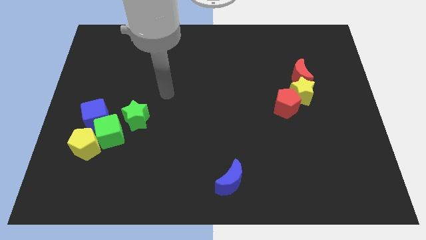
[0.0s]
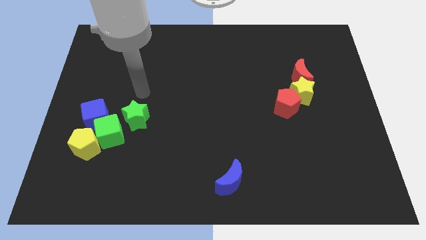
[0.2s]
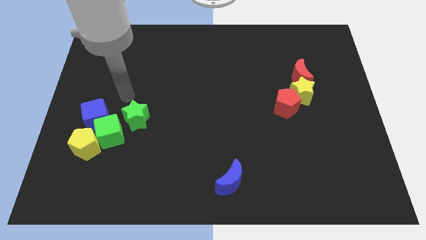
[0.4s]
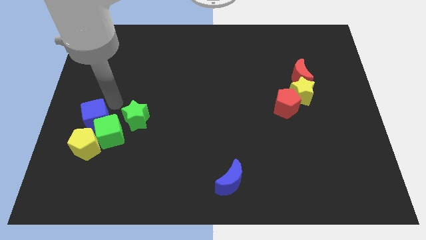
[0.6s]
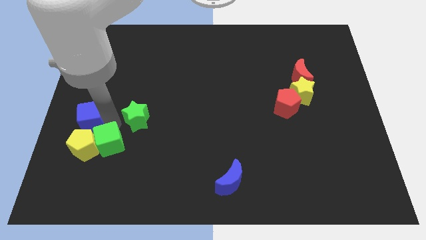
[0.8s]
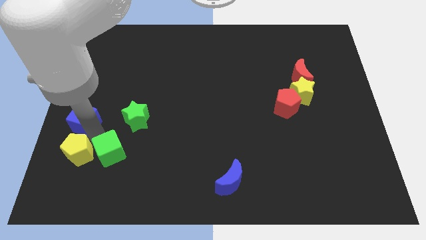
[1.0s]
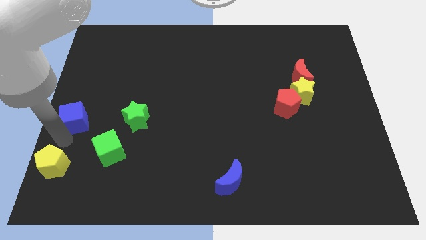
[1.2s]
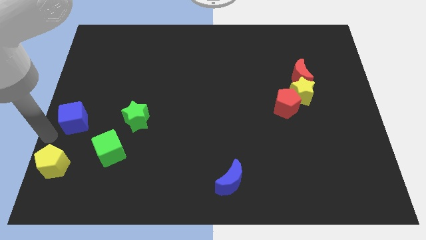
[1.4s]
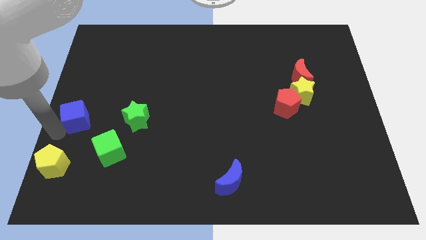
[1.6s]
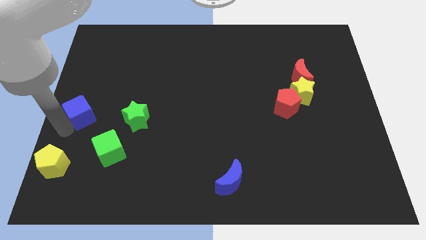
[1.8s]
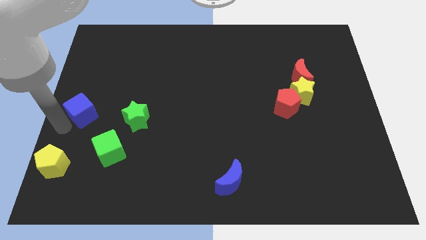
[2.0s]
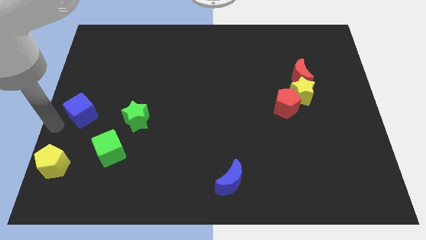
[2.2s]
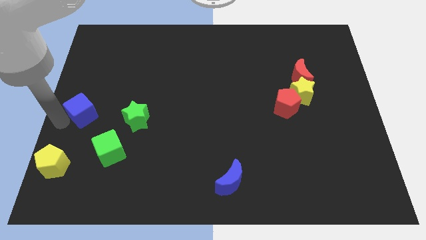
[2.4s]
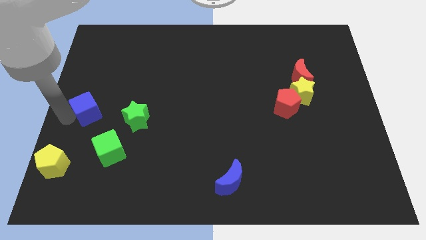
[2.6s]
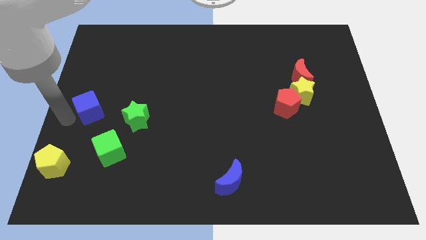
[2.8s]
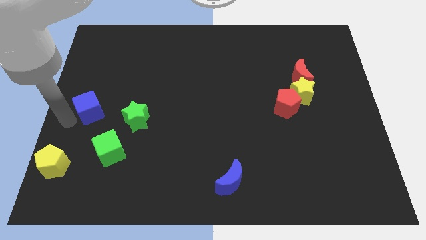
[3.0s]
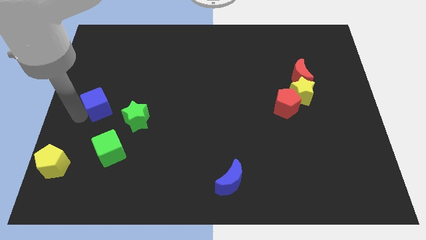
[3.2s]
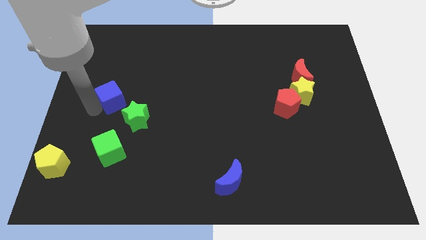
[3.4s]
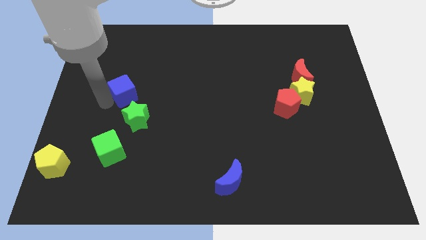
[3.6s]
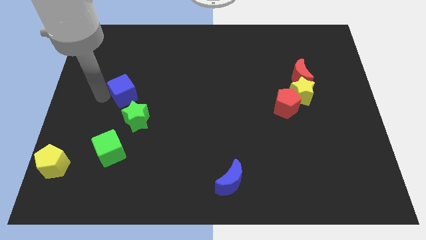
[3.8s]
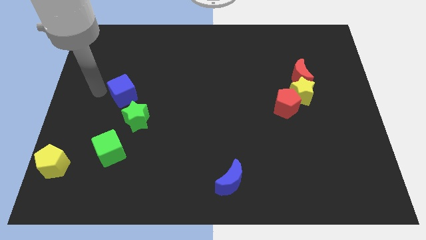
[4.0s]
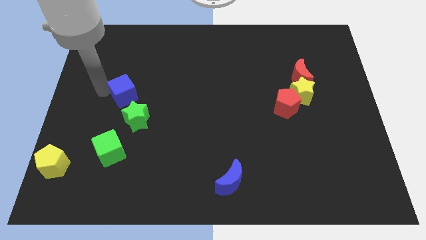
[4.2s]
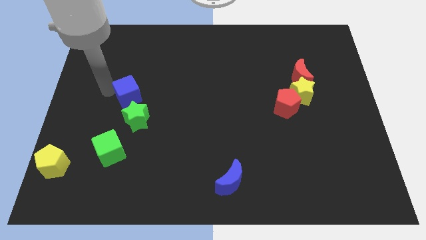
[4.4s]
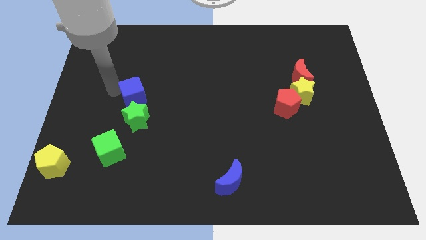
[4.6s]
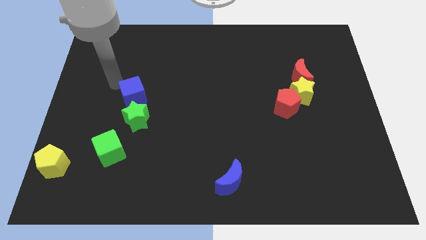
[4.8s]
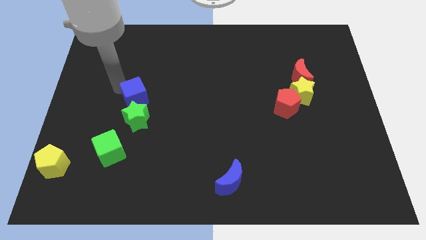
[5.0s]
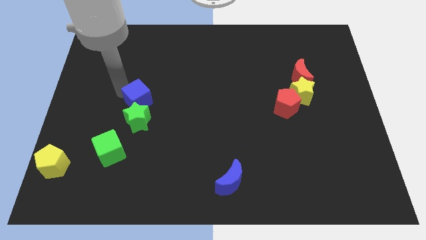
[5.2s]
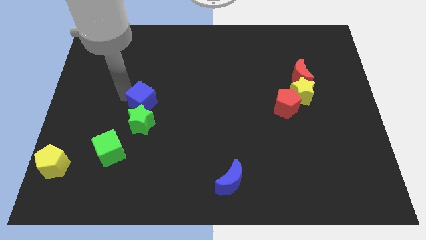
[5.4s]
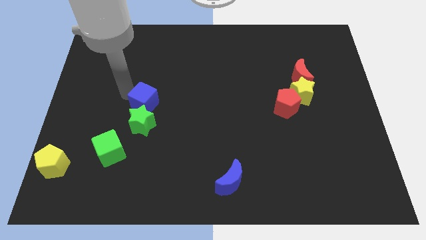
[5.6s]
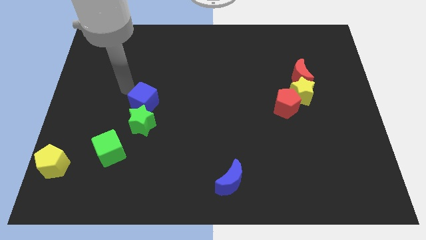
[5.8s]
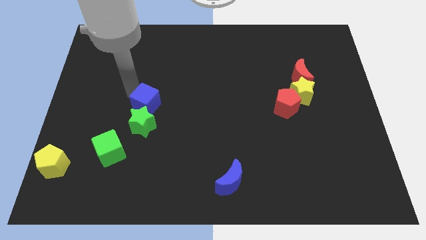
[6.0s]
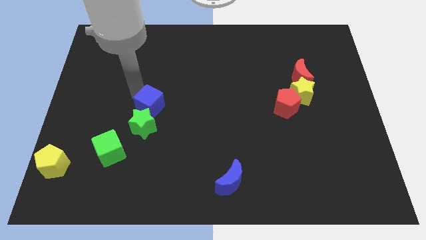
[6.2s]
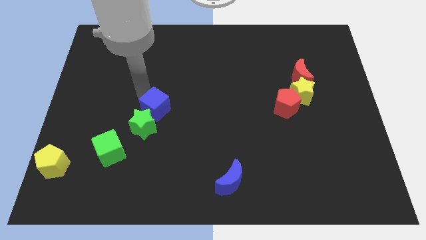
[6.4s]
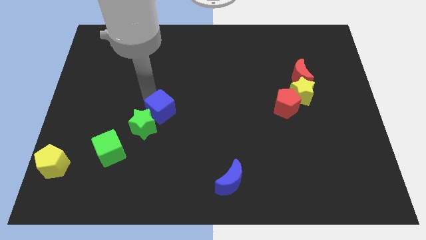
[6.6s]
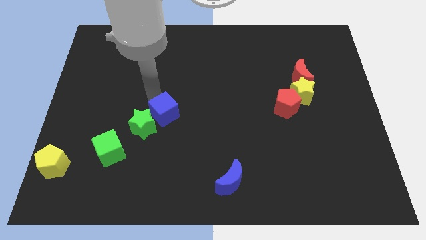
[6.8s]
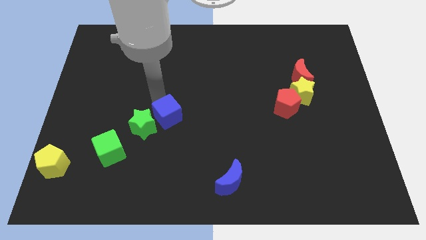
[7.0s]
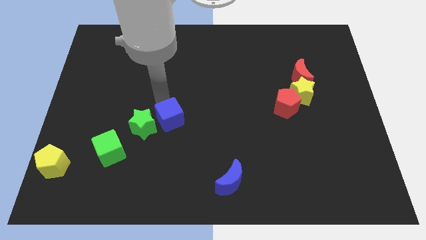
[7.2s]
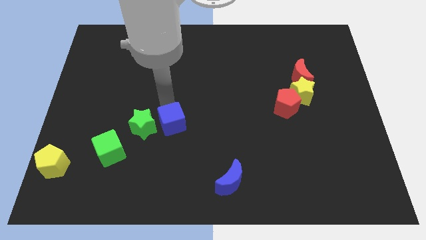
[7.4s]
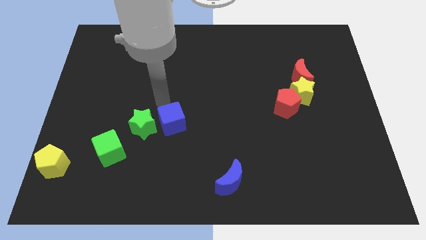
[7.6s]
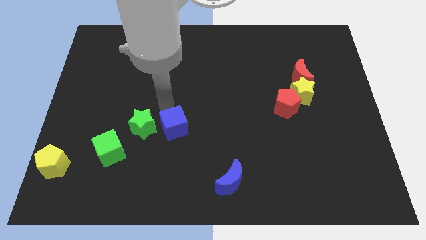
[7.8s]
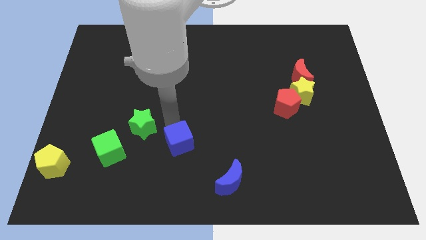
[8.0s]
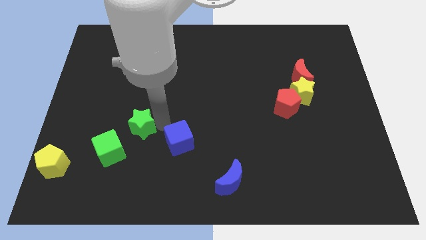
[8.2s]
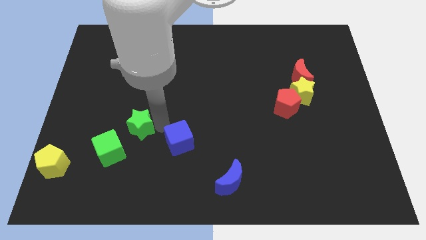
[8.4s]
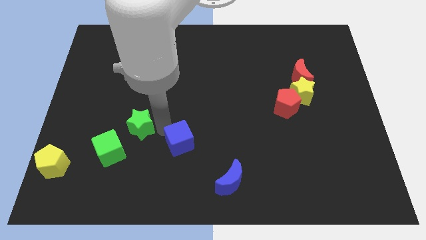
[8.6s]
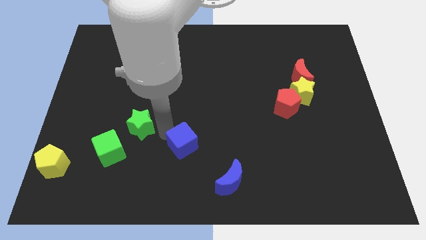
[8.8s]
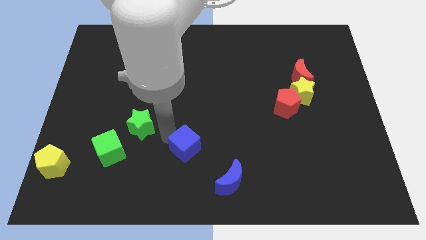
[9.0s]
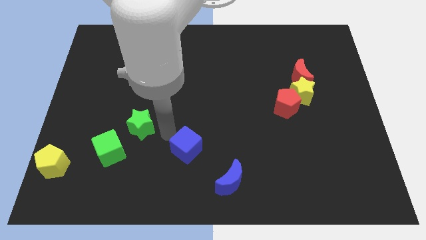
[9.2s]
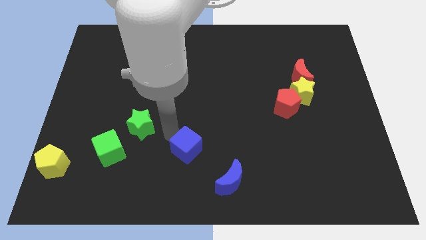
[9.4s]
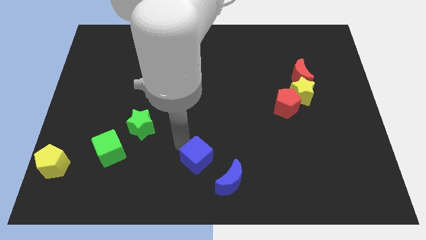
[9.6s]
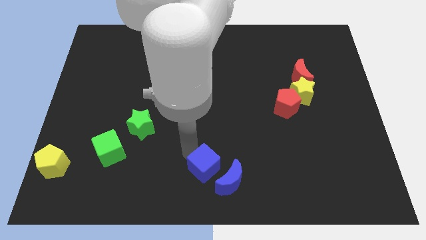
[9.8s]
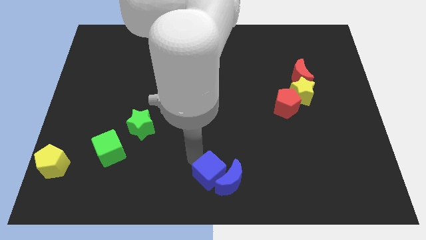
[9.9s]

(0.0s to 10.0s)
push the blue cube to the blue moon

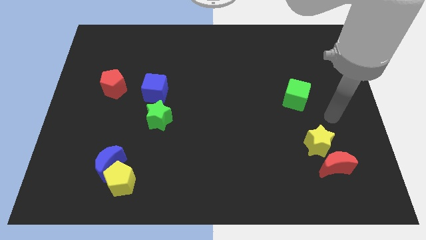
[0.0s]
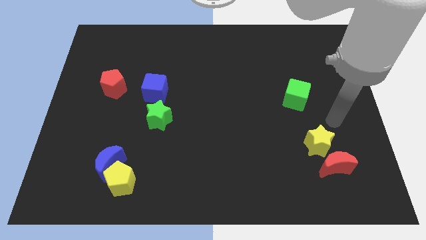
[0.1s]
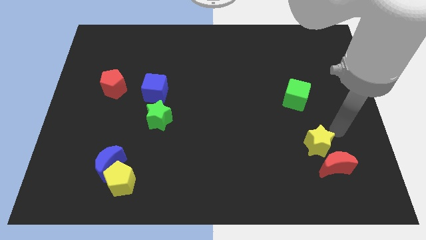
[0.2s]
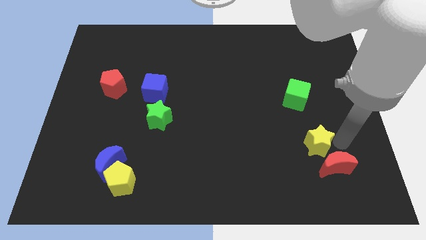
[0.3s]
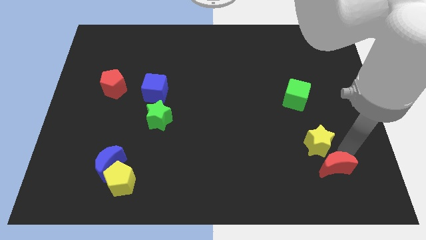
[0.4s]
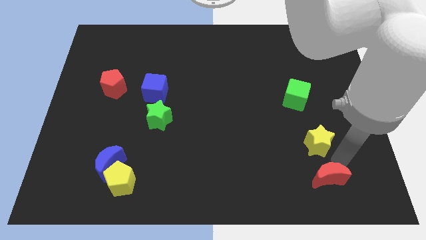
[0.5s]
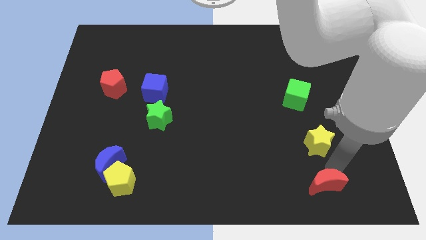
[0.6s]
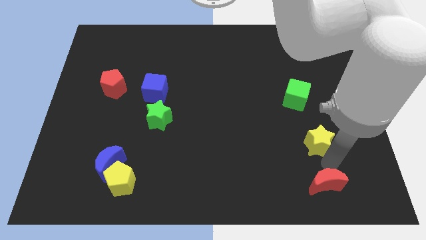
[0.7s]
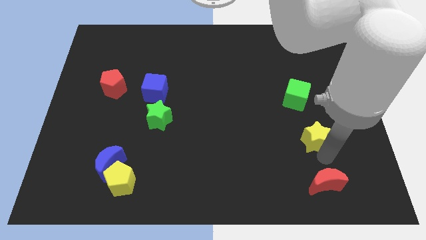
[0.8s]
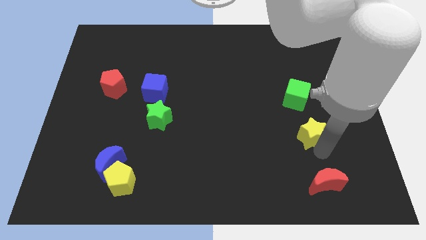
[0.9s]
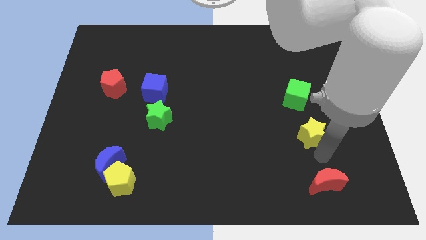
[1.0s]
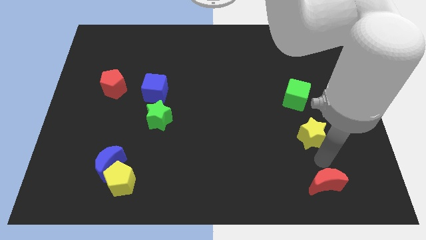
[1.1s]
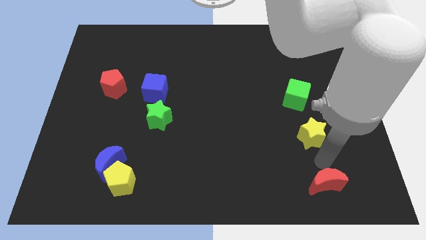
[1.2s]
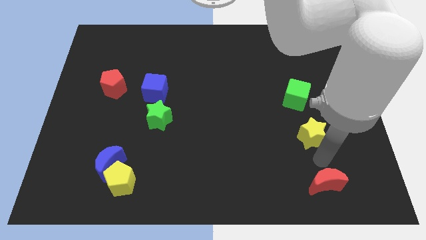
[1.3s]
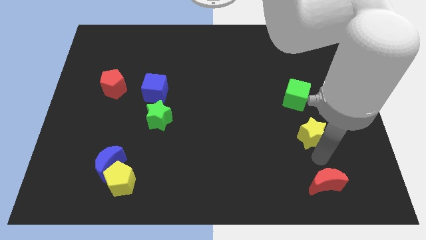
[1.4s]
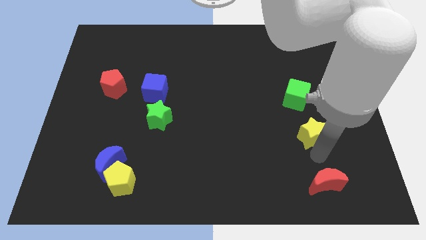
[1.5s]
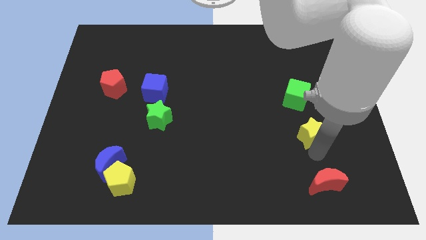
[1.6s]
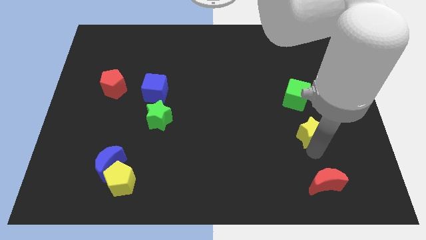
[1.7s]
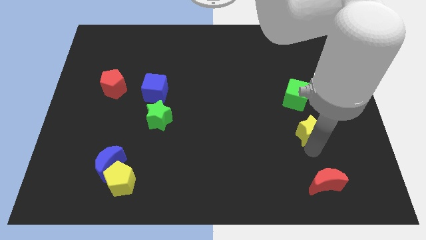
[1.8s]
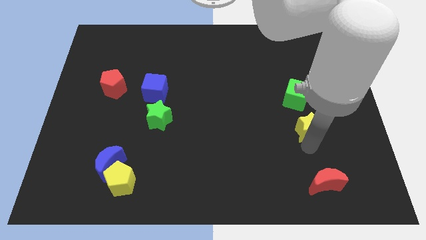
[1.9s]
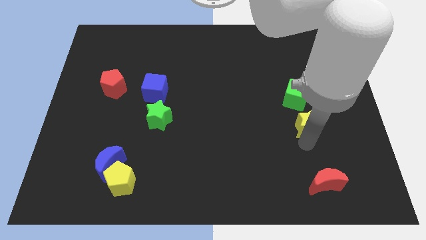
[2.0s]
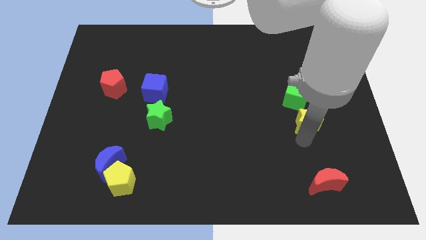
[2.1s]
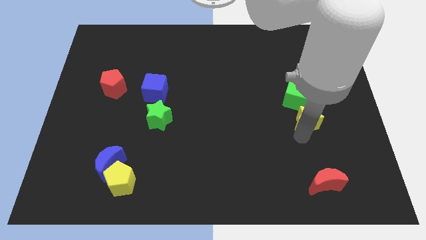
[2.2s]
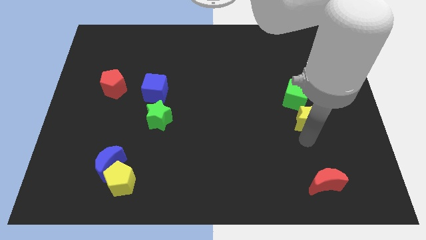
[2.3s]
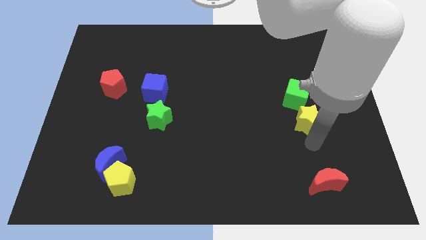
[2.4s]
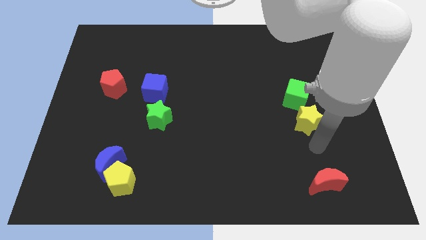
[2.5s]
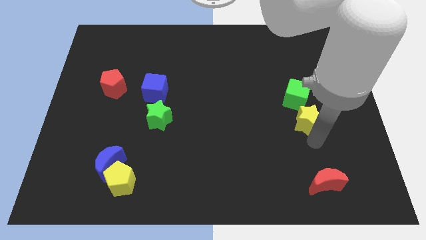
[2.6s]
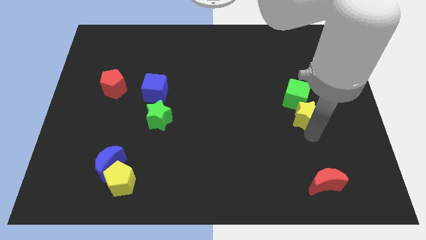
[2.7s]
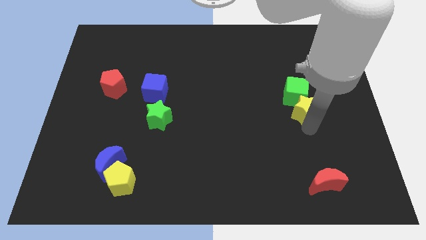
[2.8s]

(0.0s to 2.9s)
slide the yellow star close to the green cube

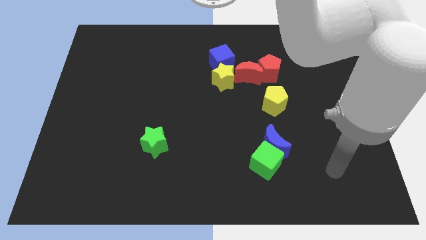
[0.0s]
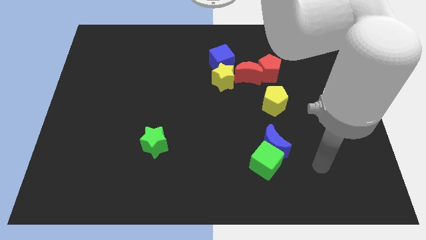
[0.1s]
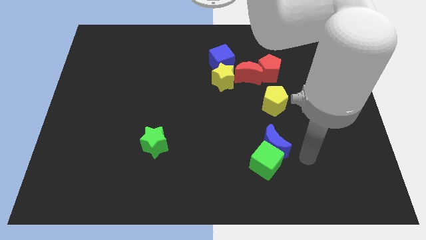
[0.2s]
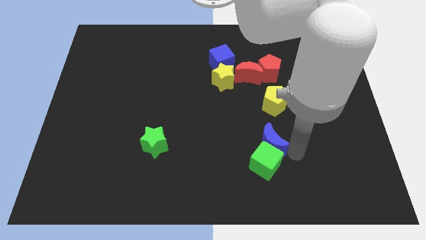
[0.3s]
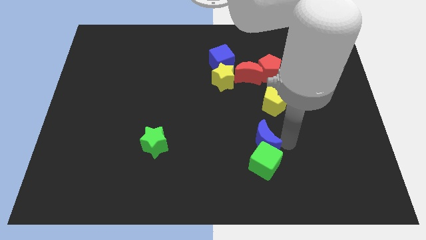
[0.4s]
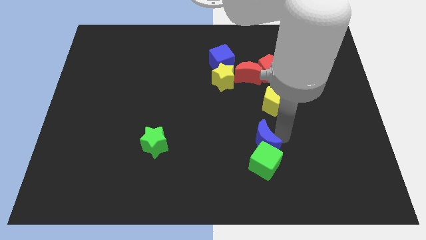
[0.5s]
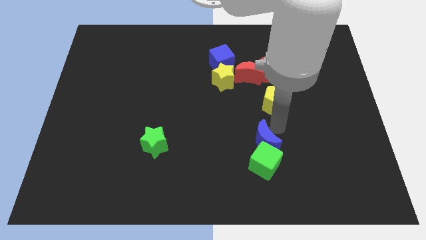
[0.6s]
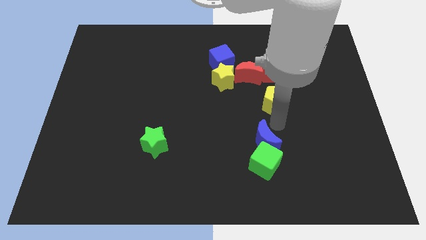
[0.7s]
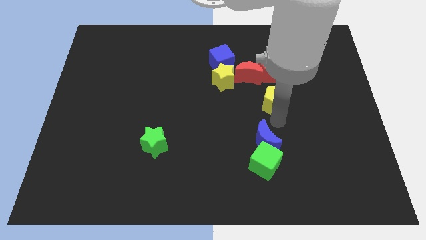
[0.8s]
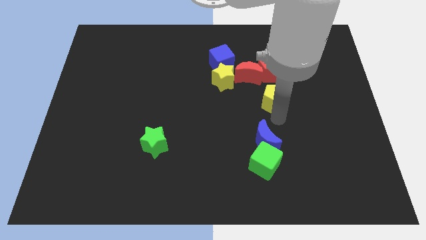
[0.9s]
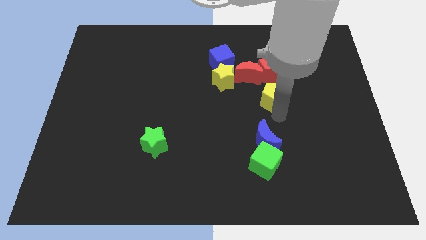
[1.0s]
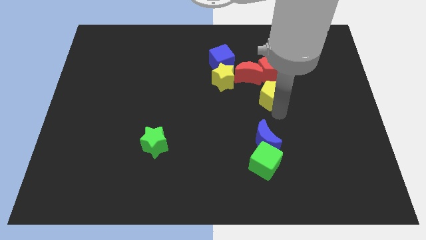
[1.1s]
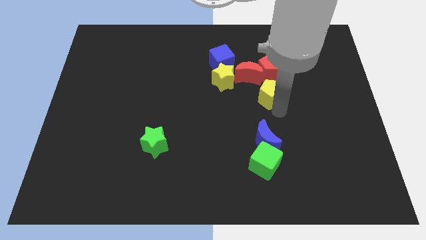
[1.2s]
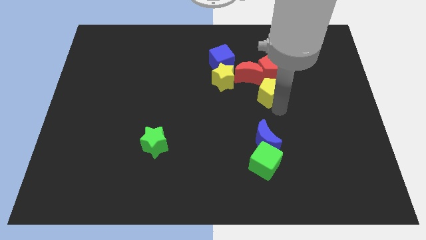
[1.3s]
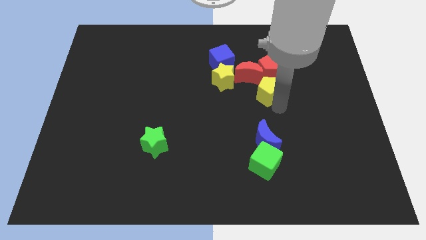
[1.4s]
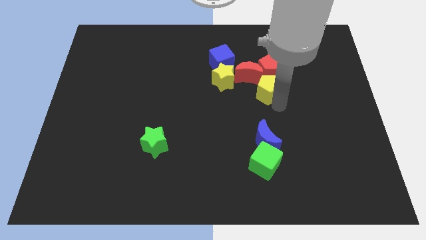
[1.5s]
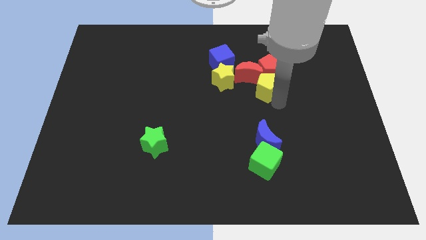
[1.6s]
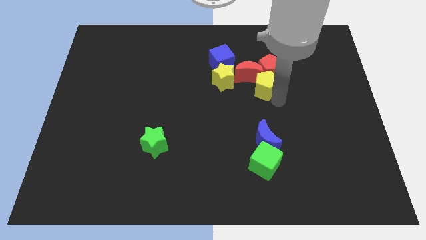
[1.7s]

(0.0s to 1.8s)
move the yellow pentagon close to the red pentagon
